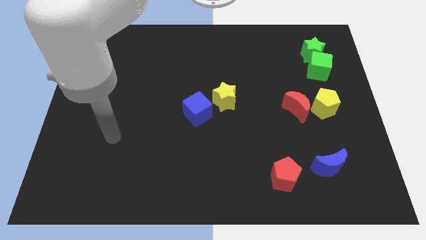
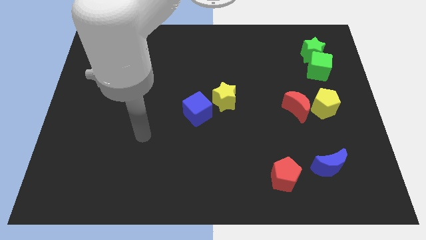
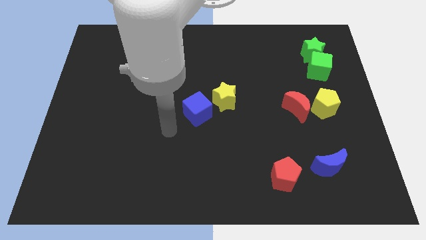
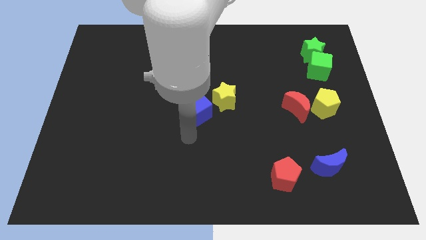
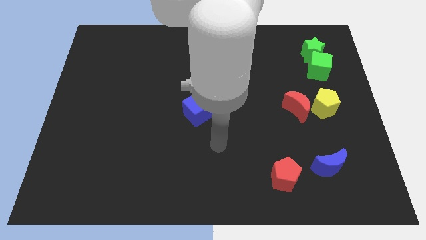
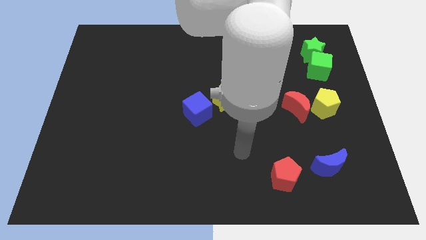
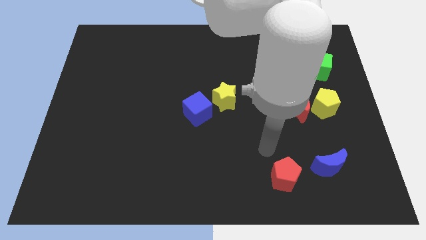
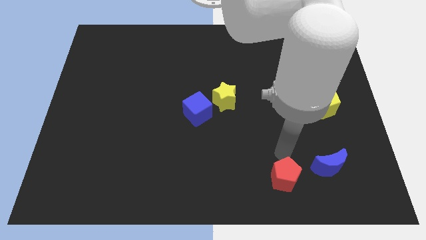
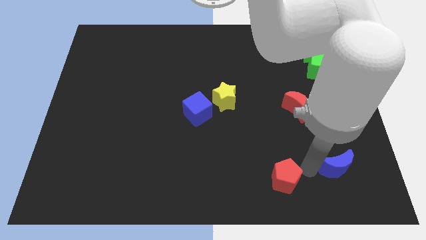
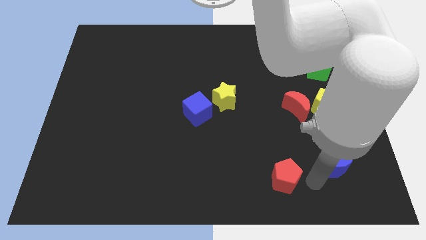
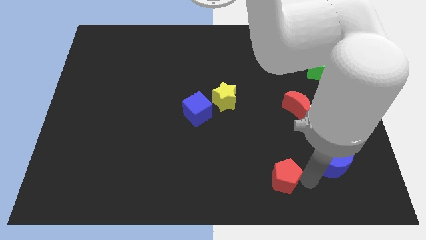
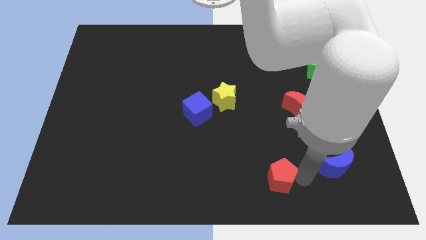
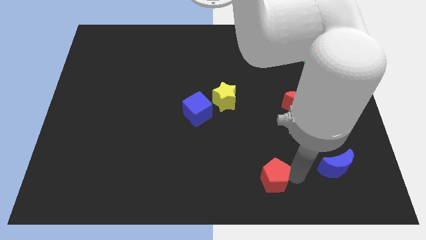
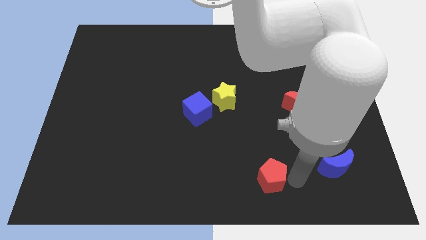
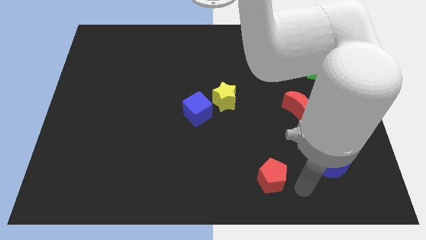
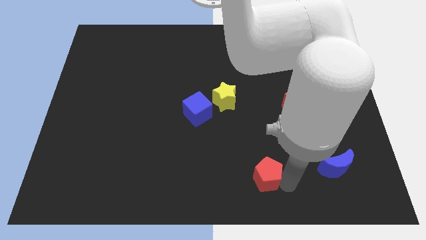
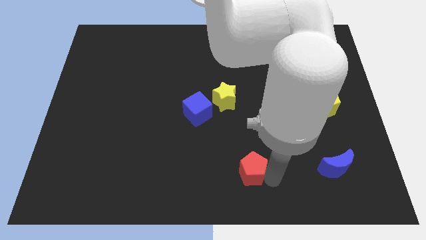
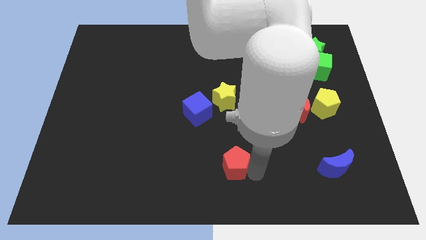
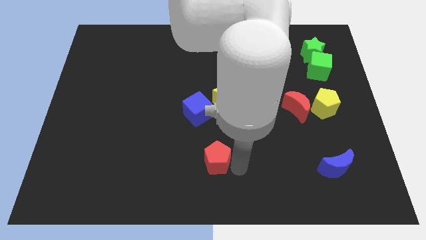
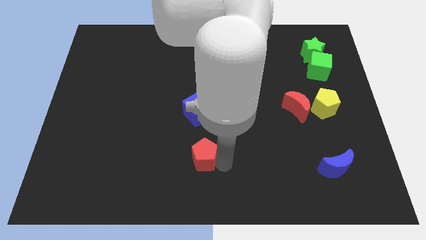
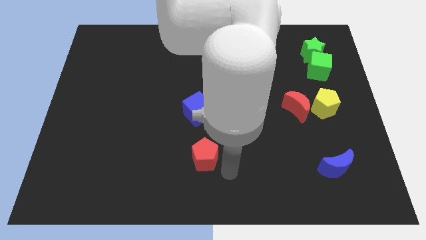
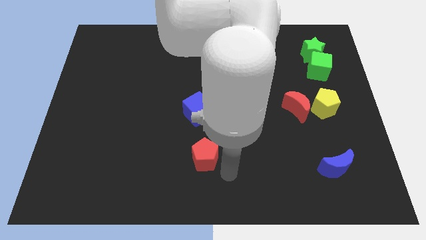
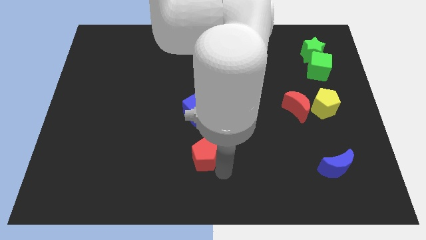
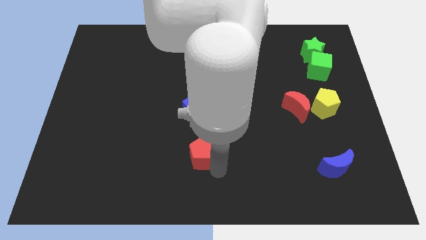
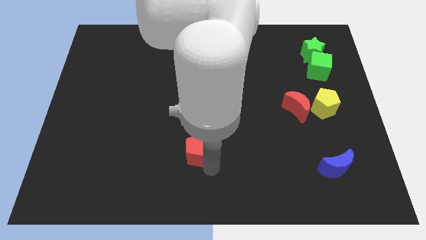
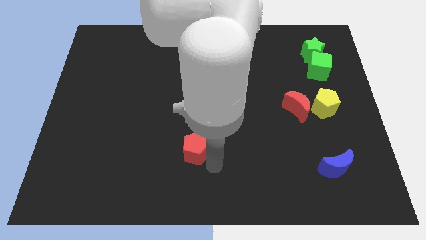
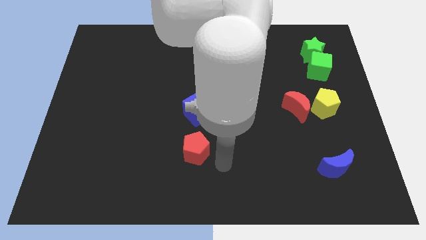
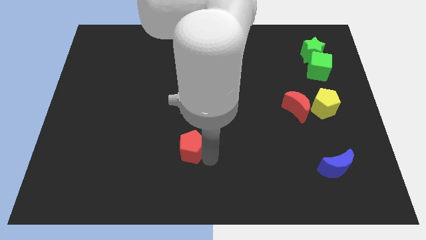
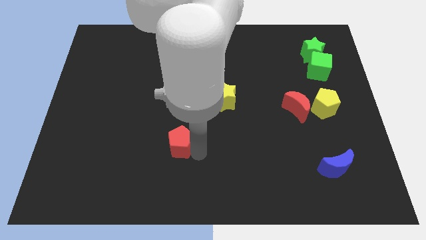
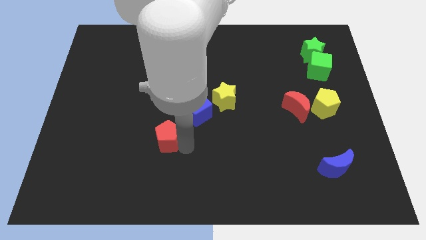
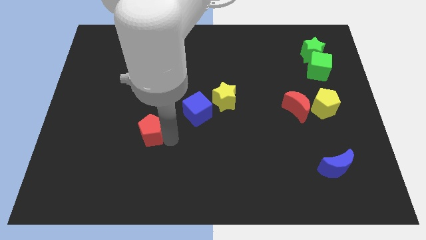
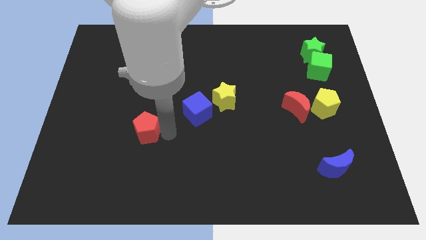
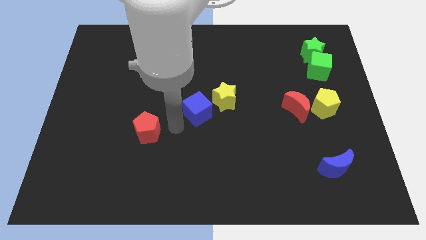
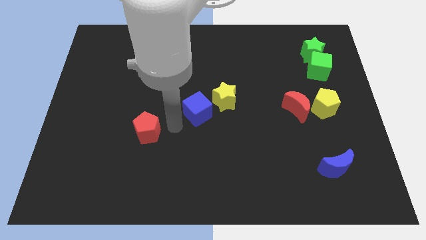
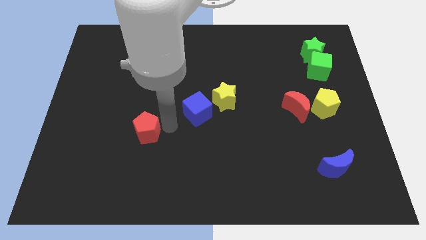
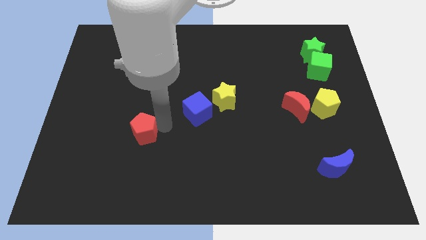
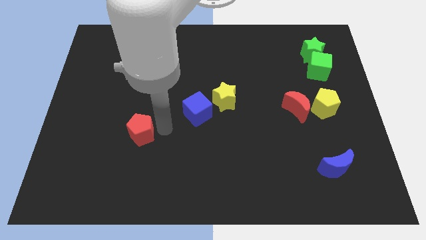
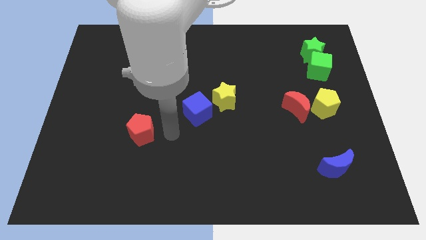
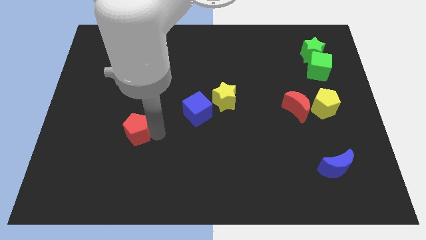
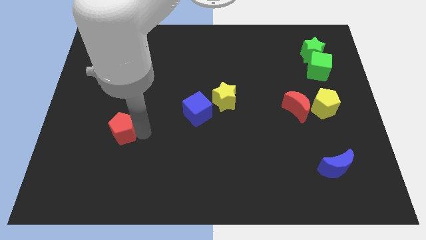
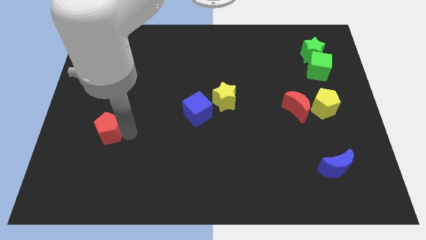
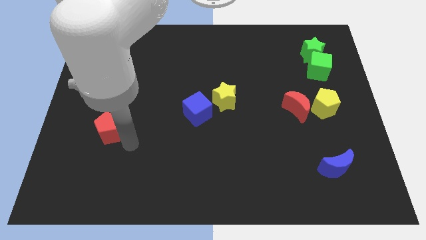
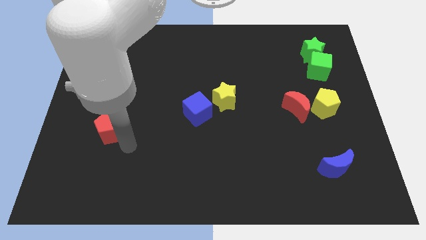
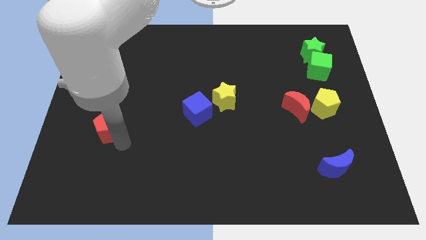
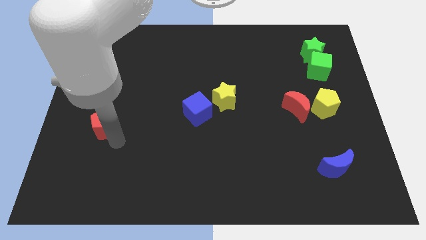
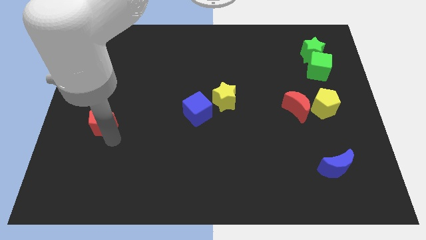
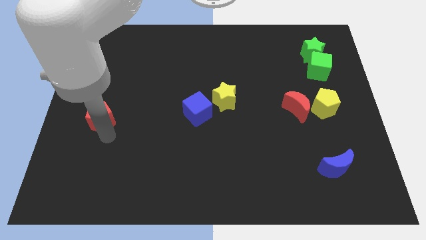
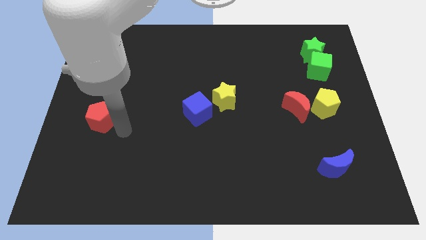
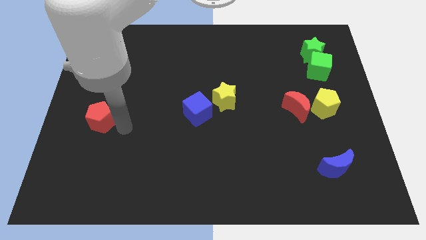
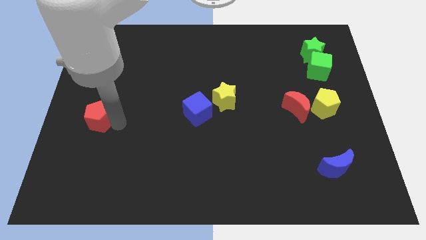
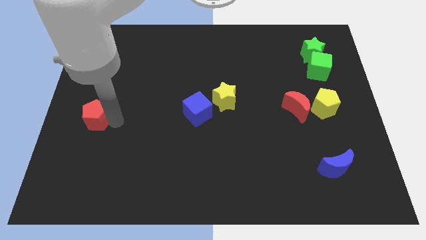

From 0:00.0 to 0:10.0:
put the red pentagon to the center left

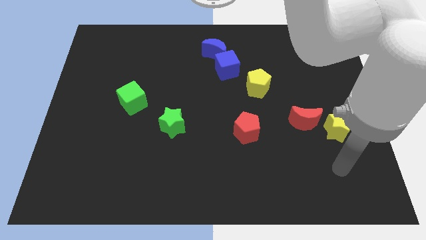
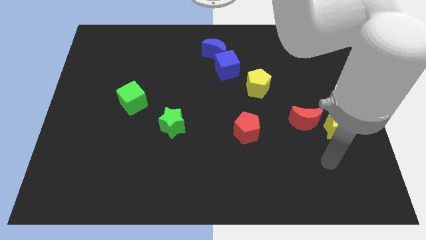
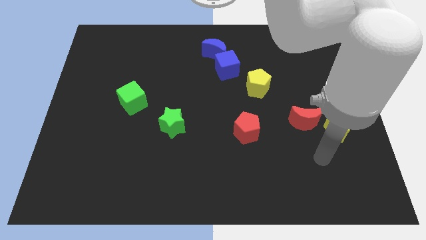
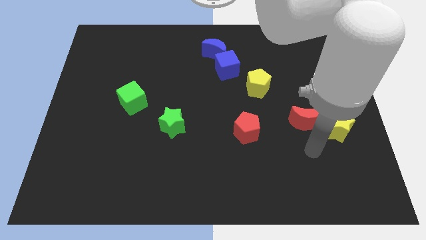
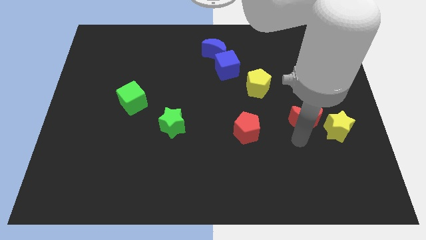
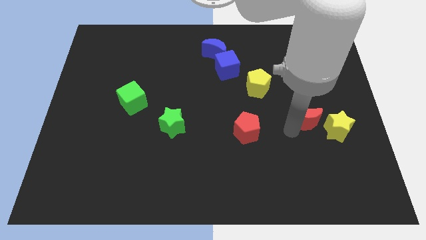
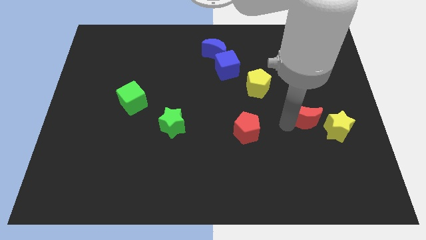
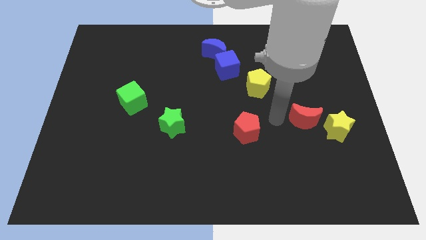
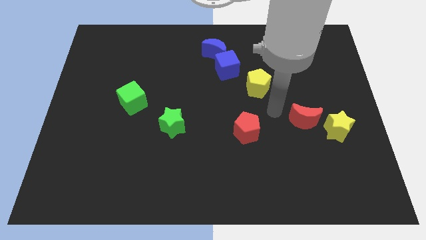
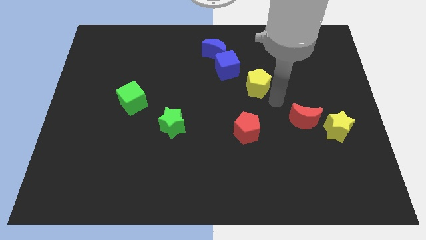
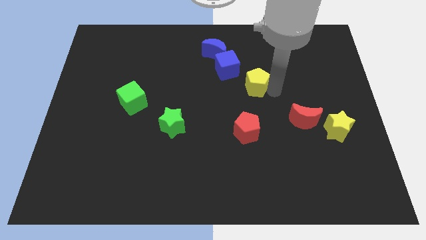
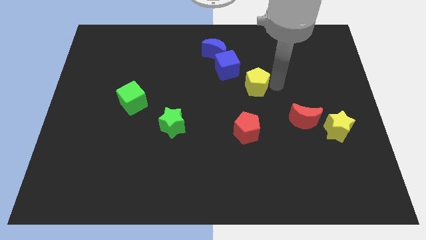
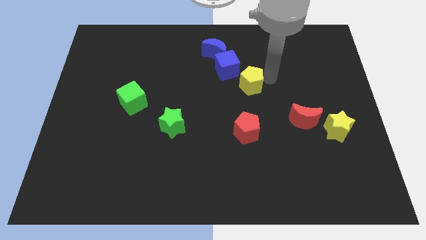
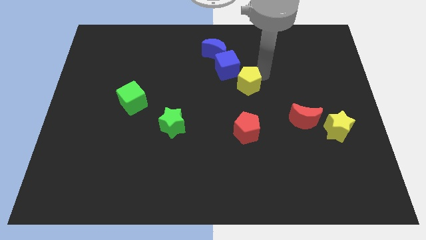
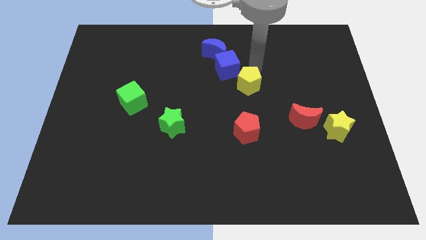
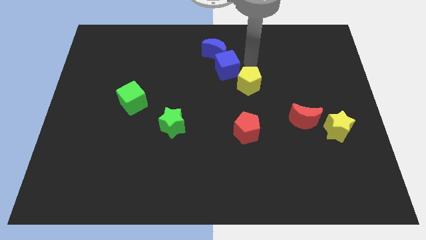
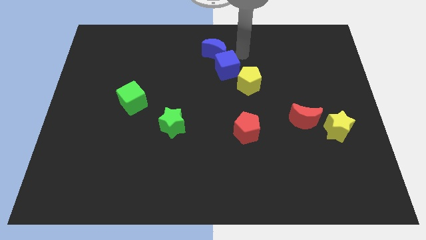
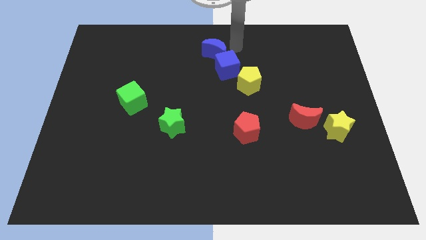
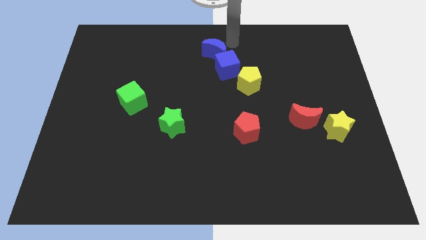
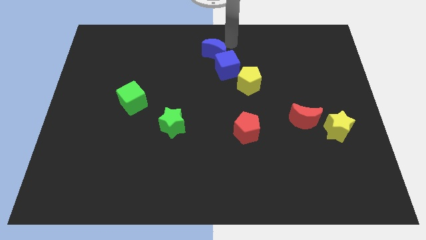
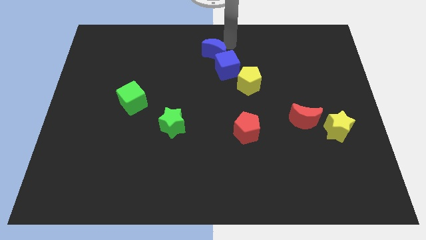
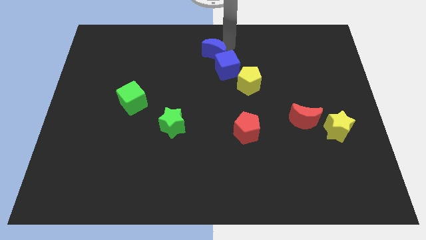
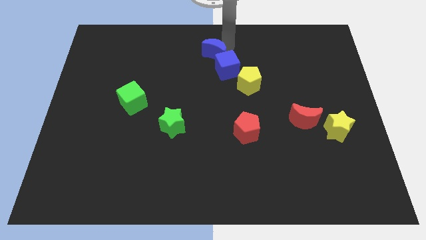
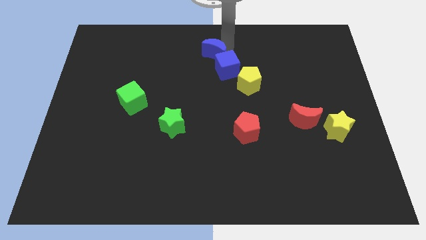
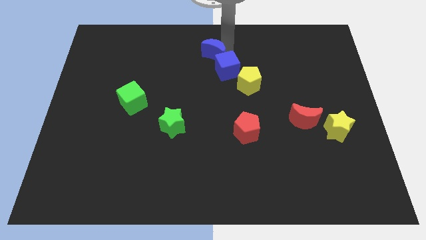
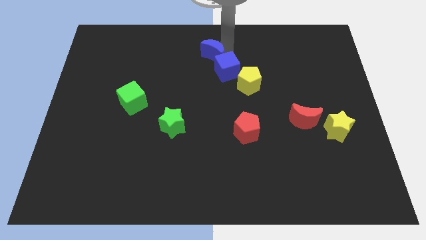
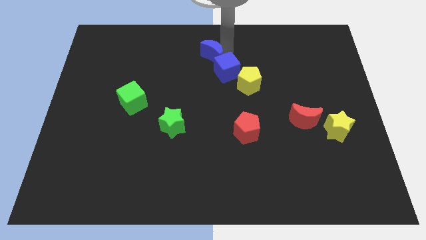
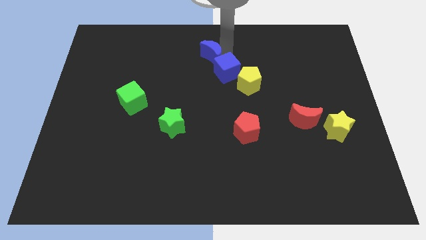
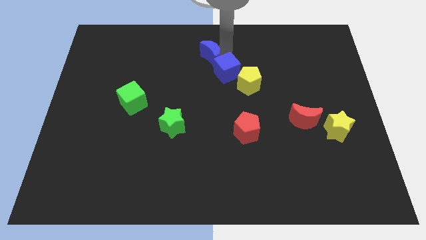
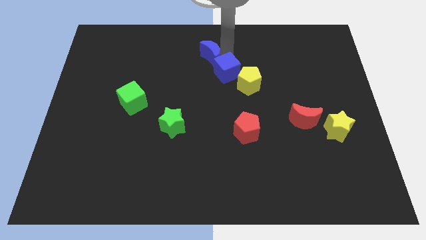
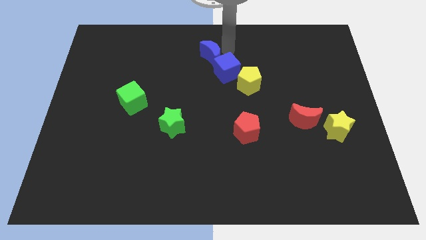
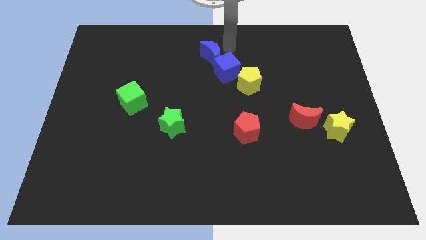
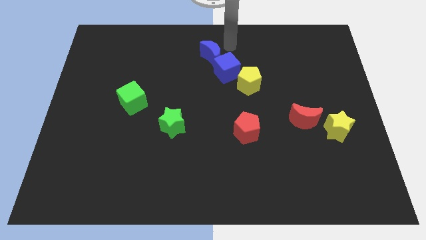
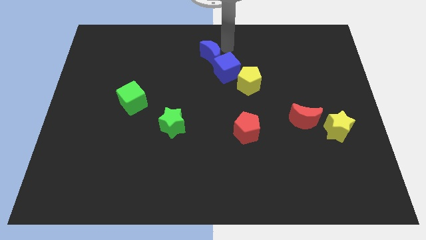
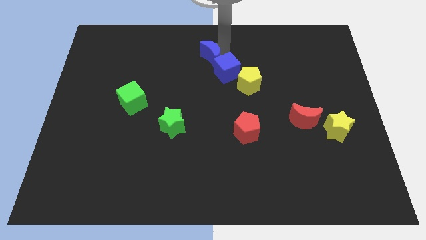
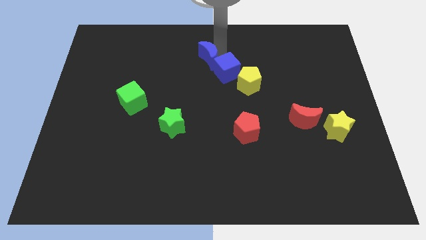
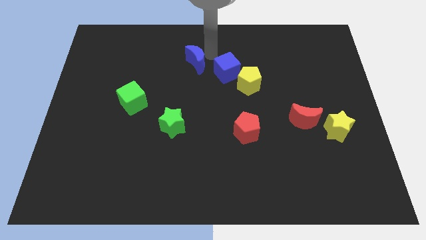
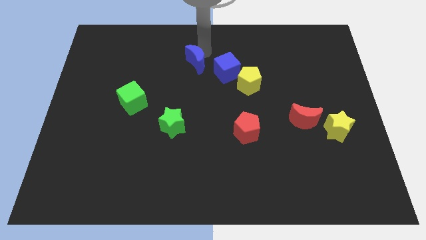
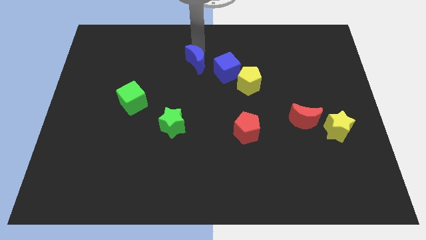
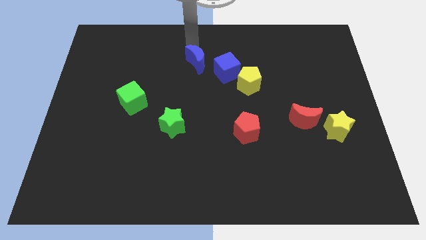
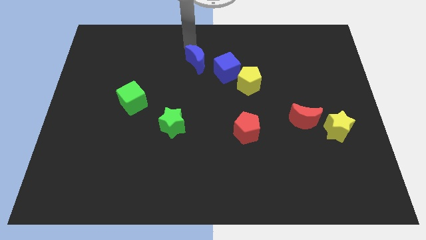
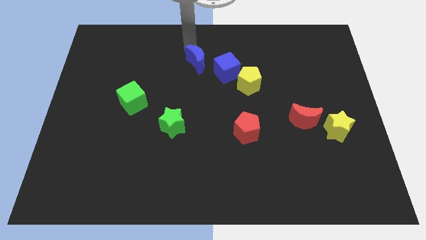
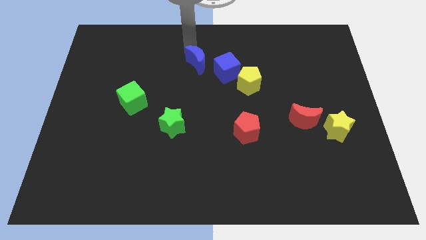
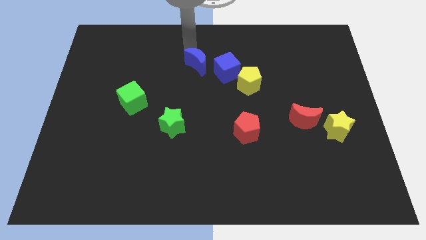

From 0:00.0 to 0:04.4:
put the blue moon to the middle of the board
